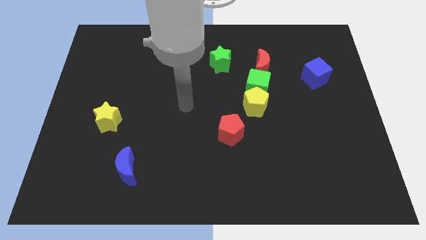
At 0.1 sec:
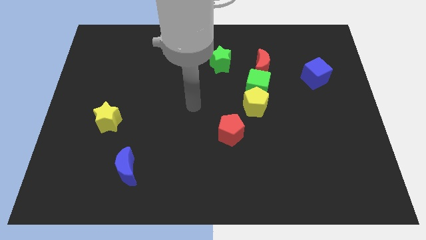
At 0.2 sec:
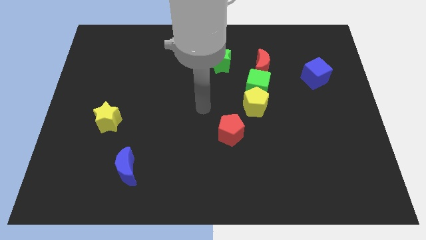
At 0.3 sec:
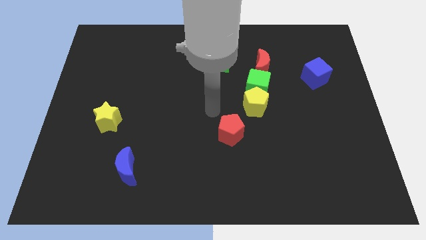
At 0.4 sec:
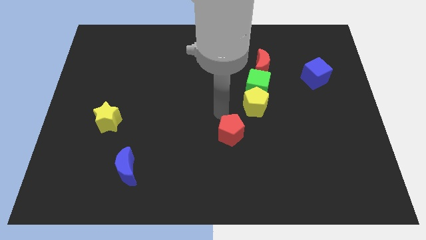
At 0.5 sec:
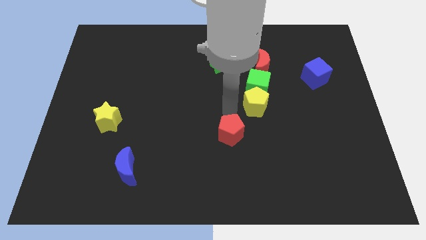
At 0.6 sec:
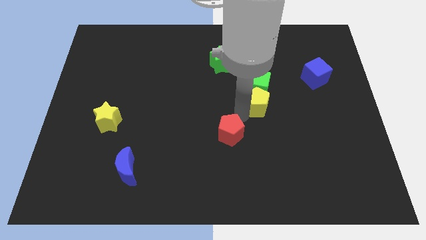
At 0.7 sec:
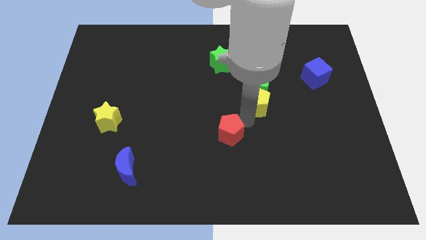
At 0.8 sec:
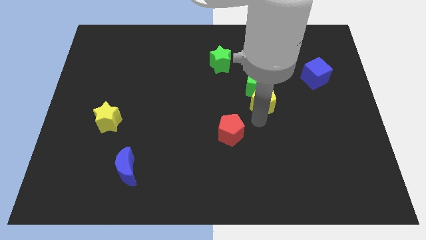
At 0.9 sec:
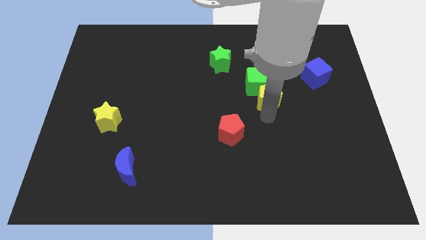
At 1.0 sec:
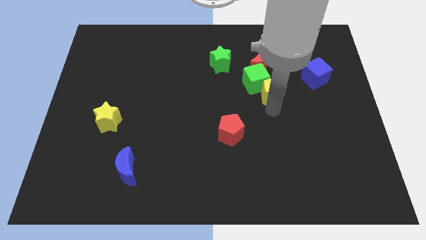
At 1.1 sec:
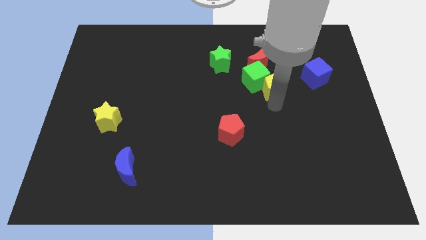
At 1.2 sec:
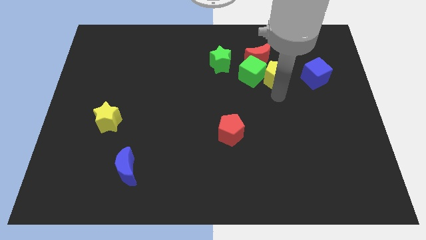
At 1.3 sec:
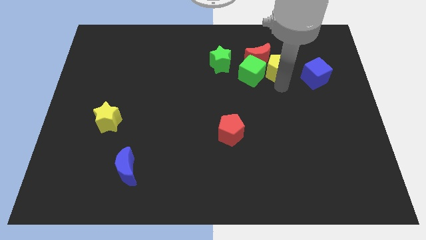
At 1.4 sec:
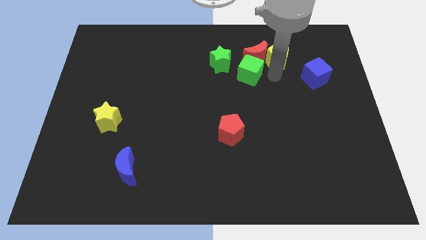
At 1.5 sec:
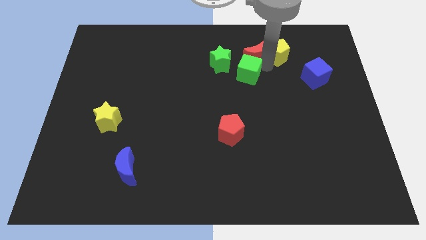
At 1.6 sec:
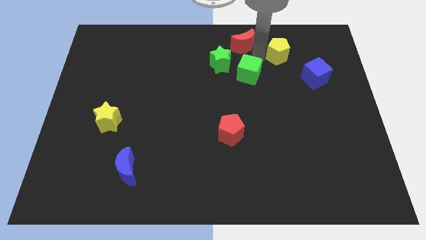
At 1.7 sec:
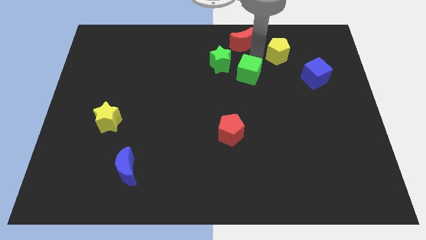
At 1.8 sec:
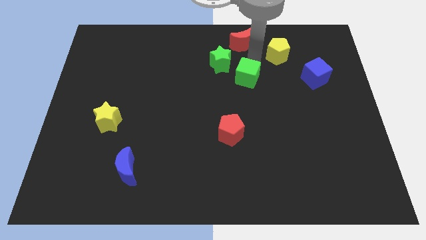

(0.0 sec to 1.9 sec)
separate the green cube from the yellow pentagon and red moon

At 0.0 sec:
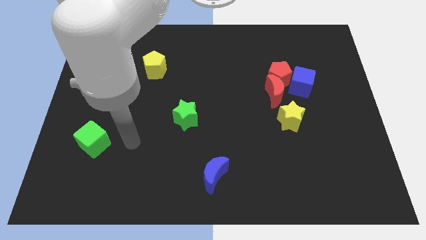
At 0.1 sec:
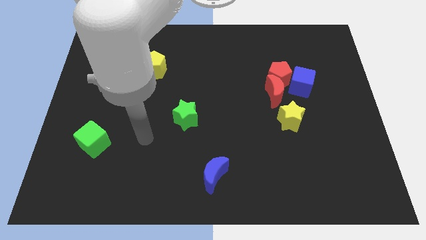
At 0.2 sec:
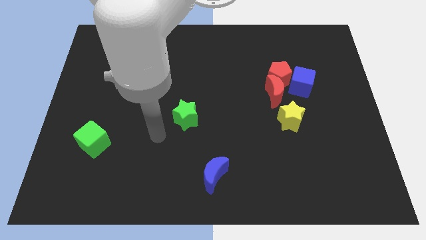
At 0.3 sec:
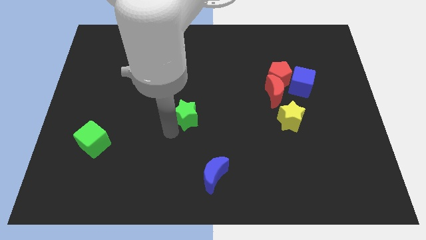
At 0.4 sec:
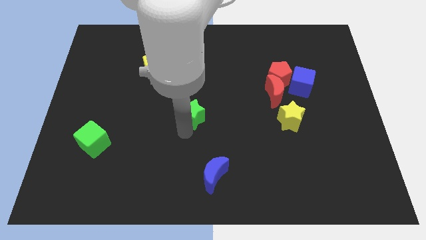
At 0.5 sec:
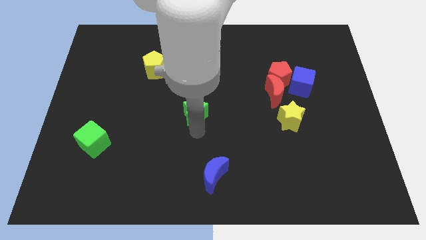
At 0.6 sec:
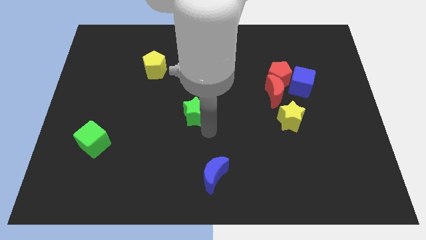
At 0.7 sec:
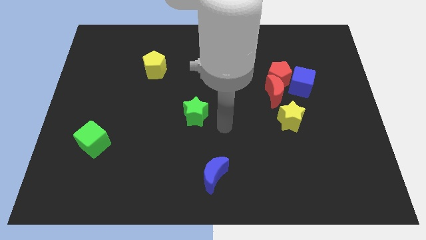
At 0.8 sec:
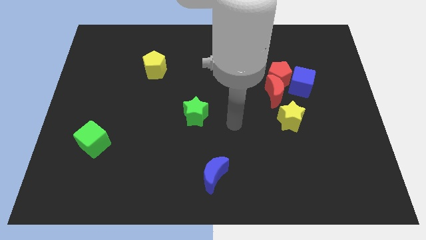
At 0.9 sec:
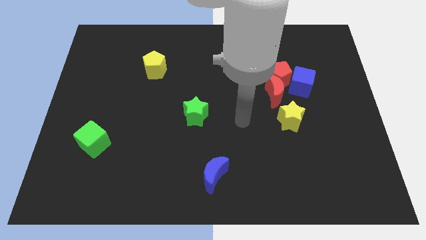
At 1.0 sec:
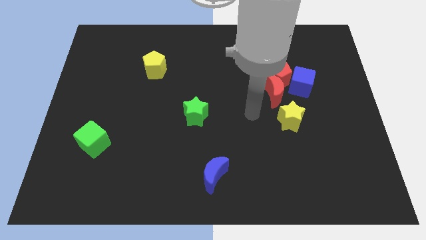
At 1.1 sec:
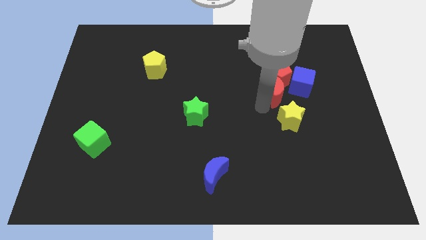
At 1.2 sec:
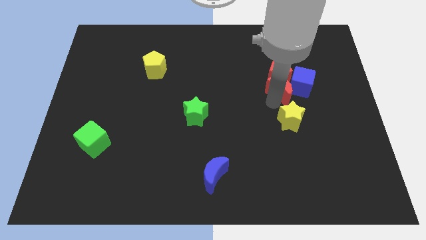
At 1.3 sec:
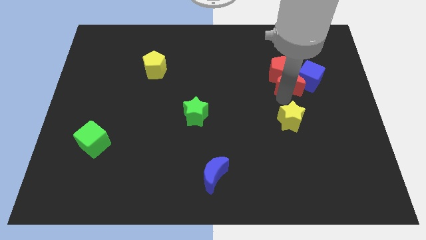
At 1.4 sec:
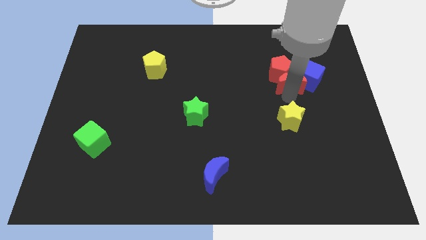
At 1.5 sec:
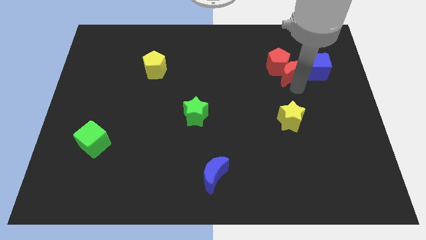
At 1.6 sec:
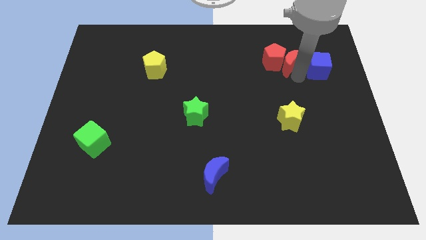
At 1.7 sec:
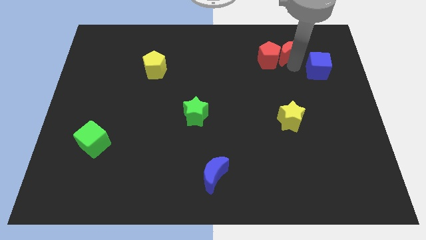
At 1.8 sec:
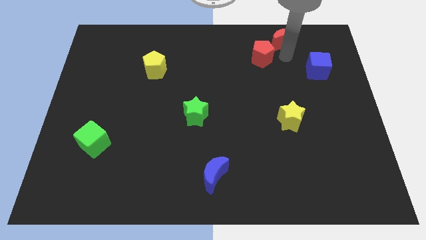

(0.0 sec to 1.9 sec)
separate the red pentagon from the red moon and blue cube

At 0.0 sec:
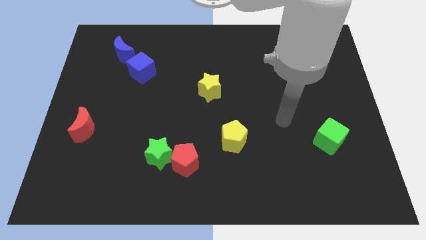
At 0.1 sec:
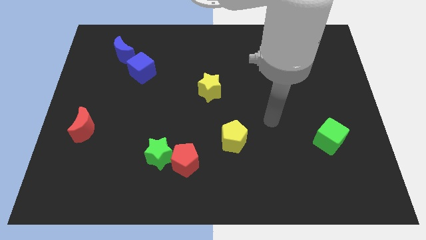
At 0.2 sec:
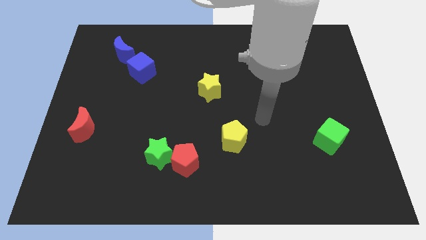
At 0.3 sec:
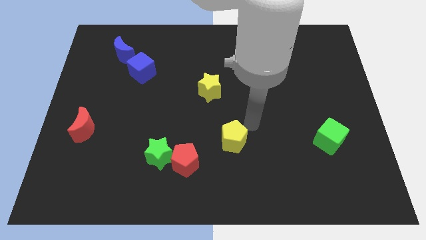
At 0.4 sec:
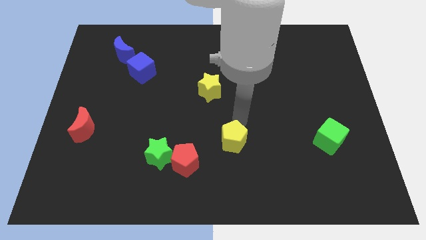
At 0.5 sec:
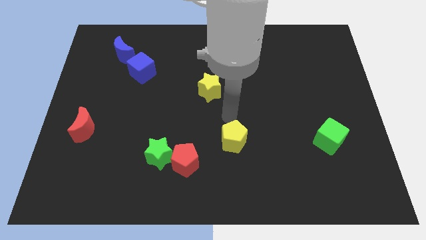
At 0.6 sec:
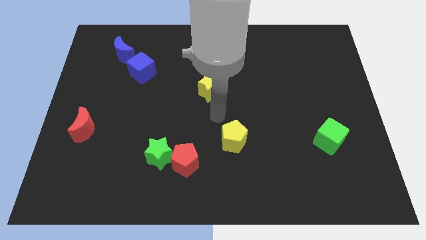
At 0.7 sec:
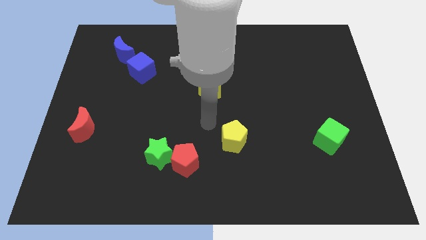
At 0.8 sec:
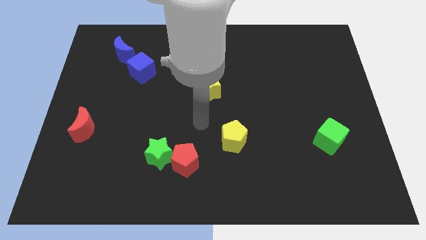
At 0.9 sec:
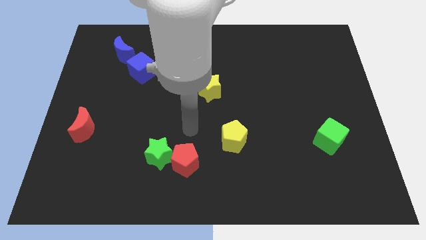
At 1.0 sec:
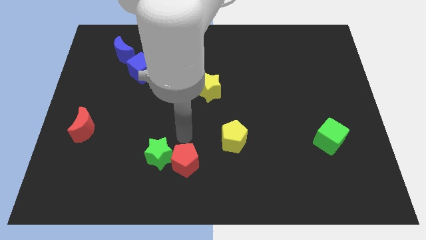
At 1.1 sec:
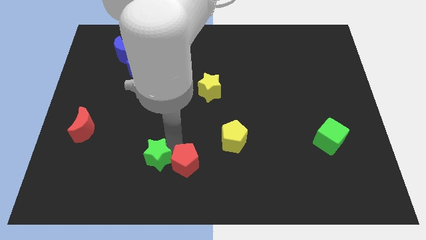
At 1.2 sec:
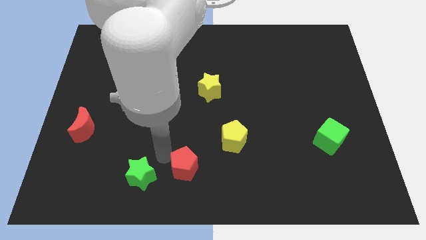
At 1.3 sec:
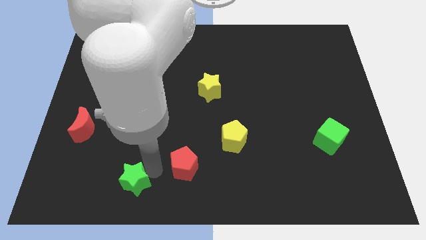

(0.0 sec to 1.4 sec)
pull the red pentagon apart from the green star

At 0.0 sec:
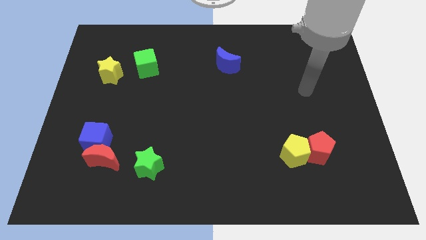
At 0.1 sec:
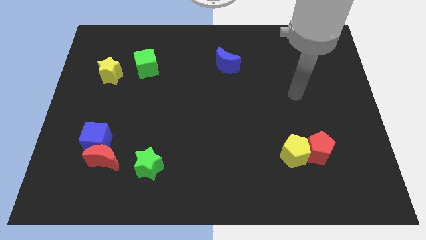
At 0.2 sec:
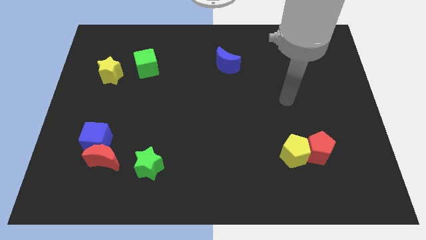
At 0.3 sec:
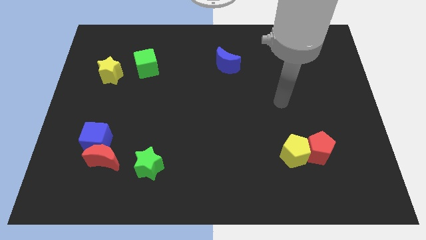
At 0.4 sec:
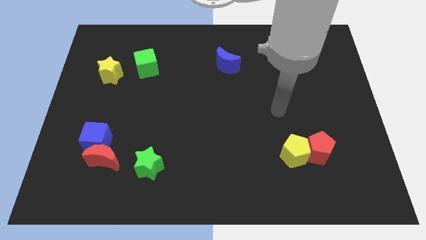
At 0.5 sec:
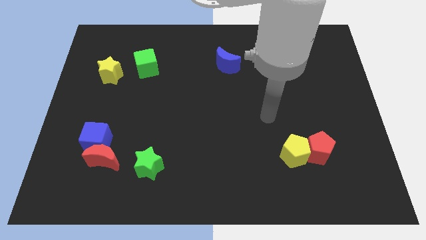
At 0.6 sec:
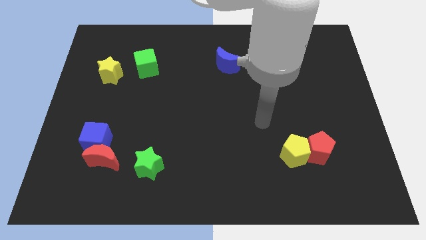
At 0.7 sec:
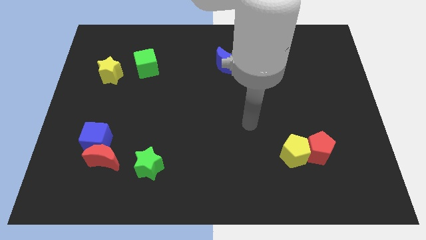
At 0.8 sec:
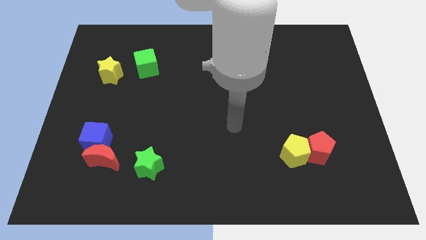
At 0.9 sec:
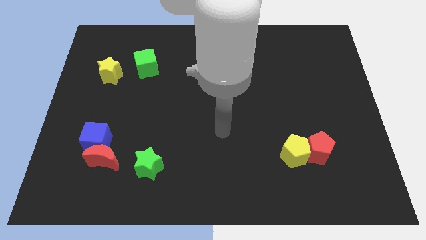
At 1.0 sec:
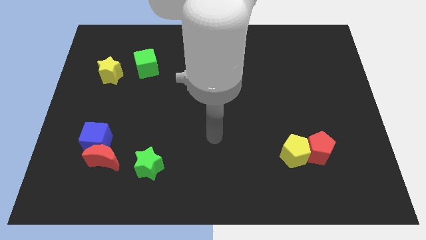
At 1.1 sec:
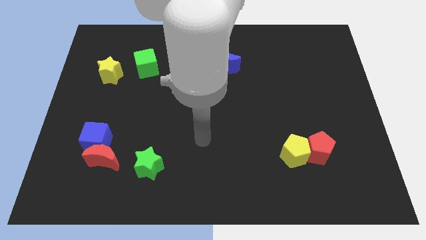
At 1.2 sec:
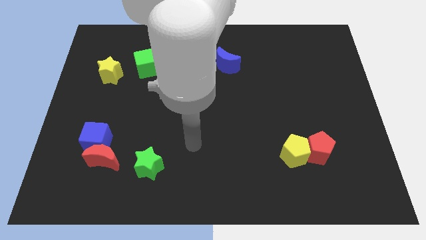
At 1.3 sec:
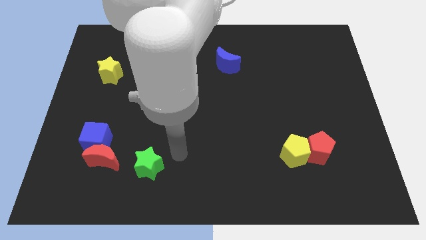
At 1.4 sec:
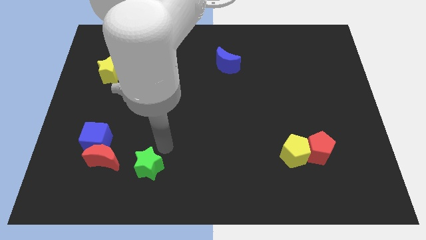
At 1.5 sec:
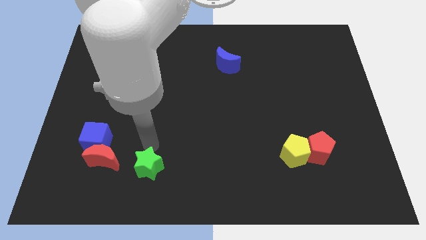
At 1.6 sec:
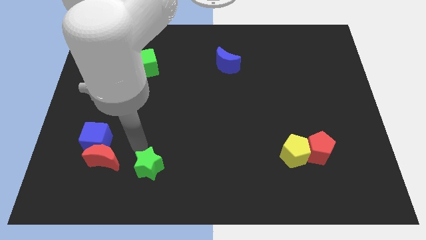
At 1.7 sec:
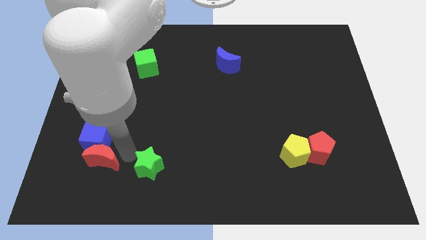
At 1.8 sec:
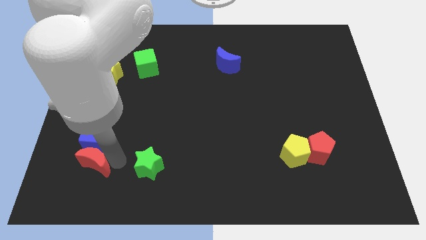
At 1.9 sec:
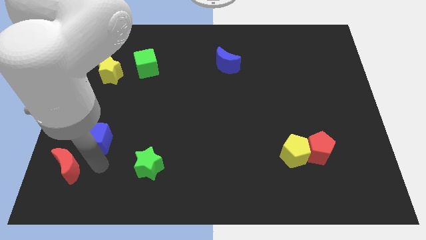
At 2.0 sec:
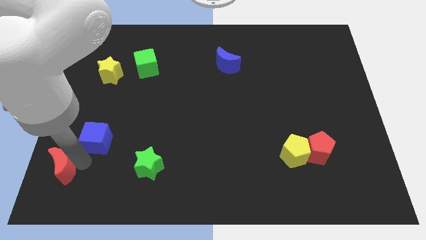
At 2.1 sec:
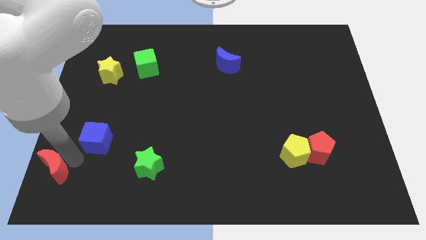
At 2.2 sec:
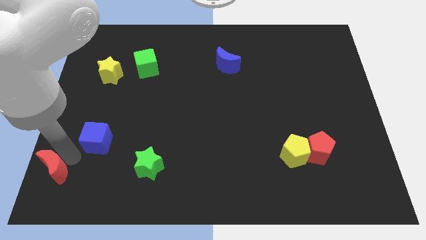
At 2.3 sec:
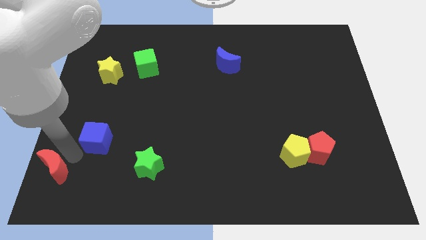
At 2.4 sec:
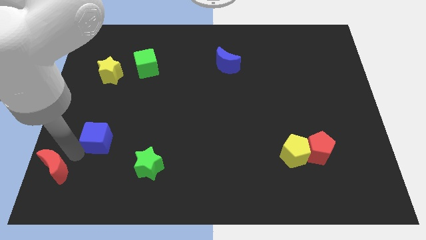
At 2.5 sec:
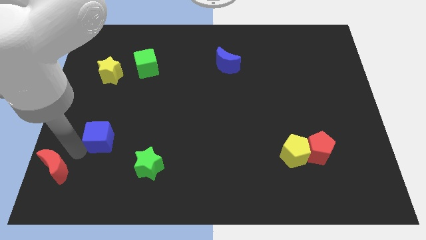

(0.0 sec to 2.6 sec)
move the blue cube away from the red moon

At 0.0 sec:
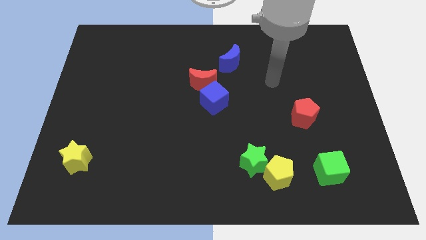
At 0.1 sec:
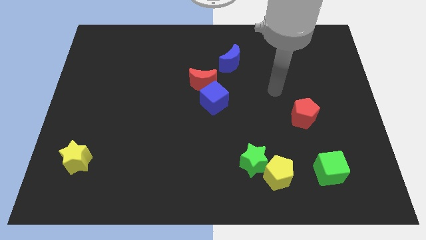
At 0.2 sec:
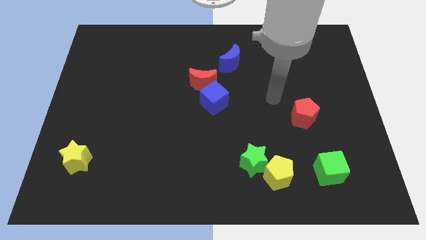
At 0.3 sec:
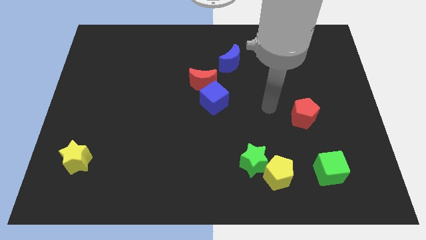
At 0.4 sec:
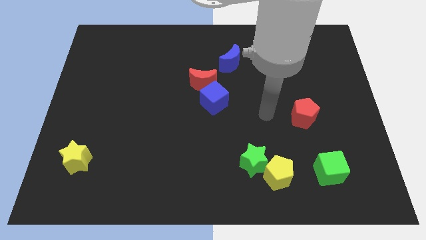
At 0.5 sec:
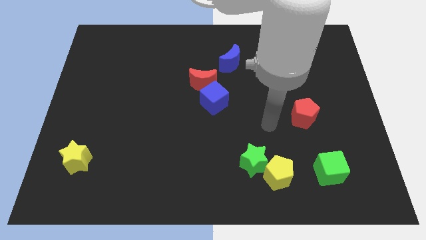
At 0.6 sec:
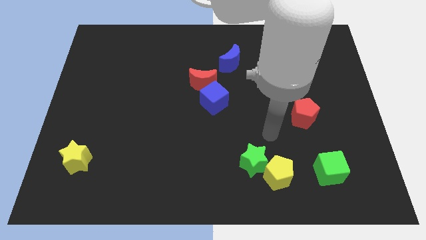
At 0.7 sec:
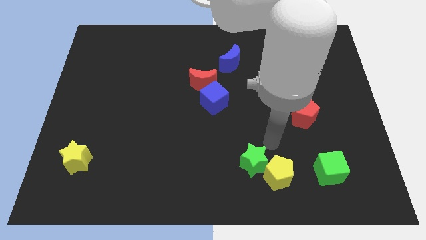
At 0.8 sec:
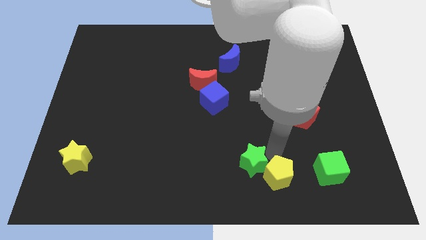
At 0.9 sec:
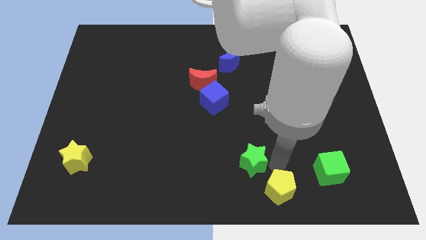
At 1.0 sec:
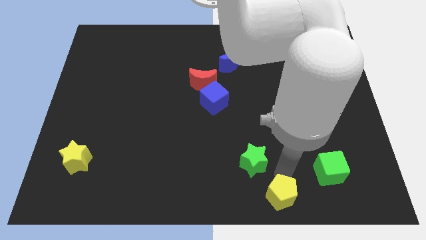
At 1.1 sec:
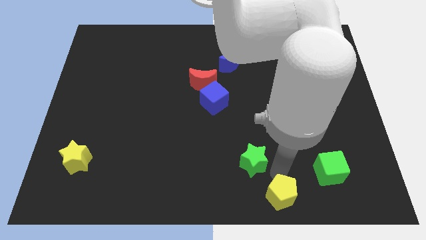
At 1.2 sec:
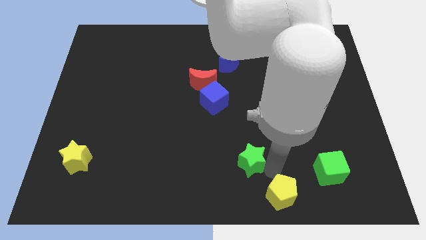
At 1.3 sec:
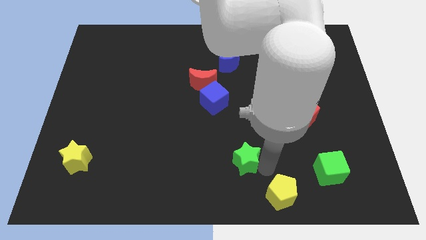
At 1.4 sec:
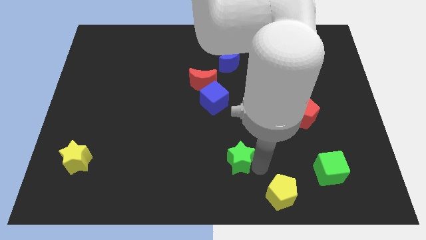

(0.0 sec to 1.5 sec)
separate the green star from the yellow pentagon
